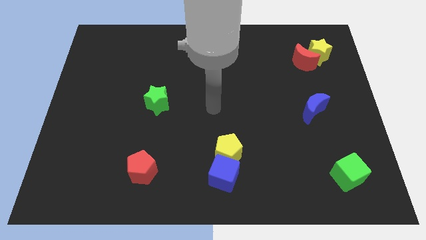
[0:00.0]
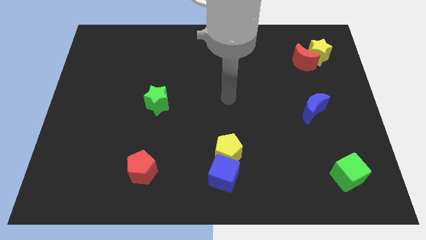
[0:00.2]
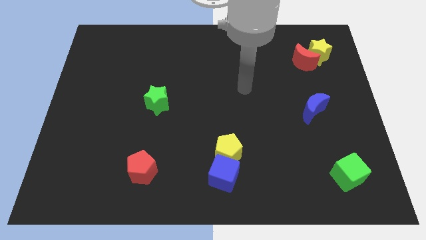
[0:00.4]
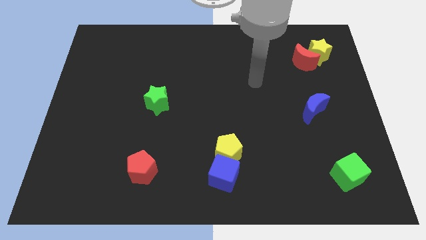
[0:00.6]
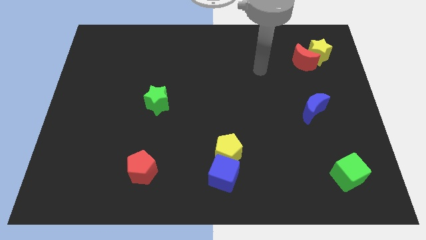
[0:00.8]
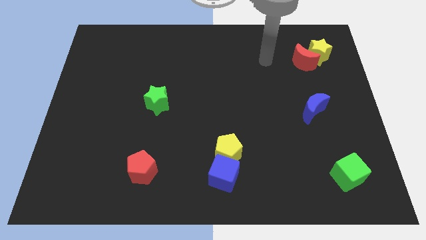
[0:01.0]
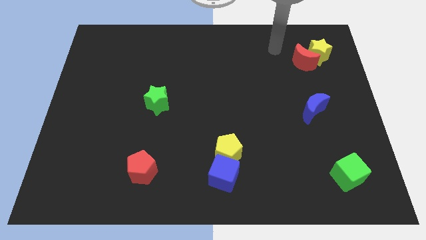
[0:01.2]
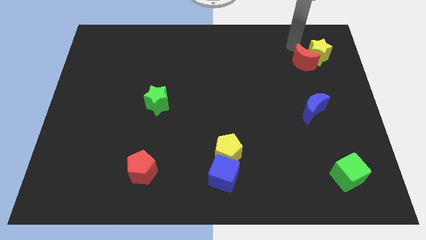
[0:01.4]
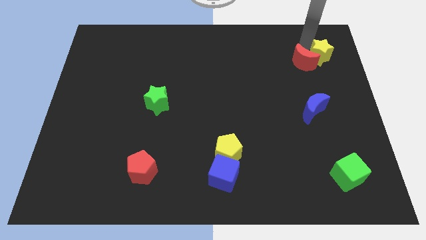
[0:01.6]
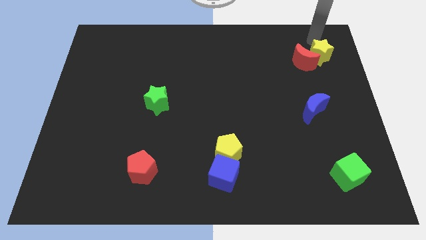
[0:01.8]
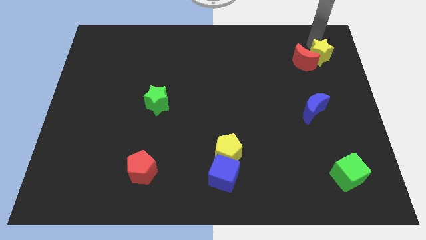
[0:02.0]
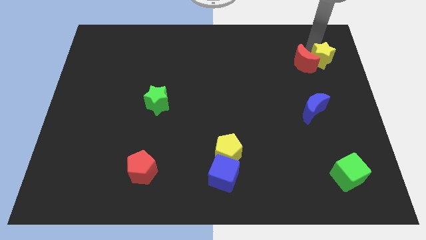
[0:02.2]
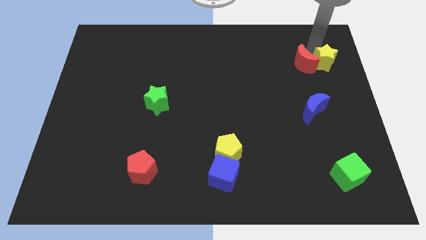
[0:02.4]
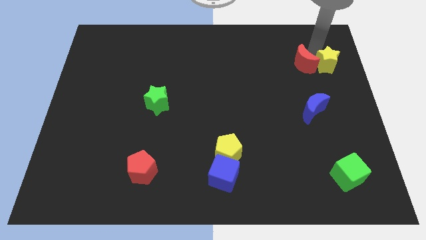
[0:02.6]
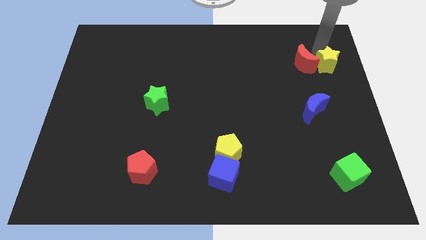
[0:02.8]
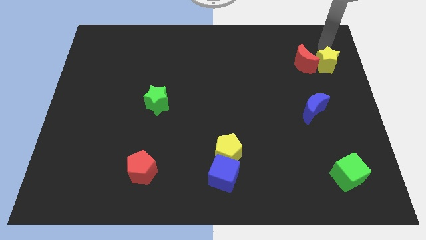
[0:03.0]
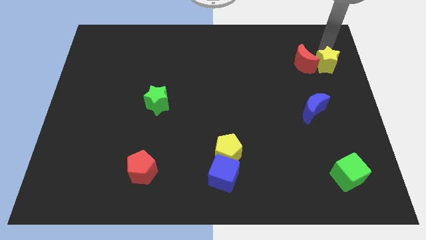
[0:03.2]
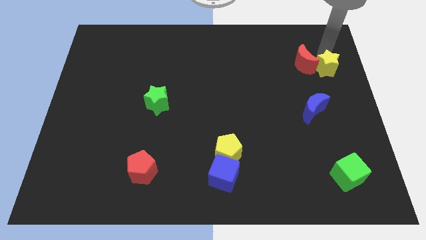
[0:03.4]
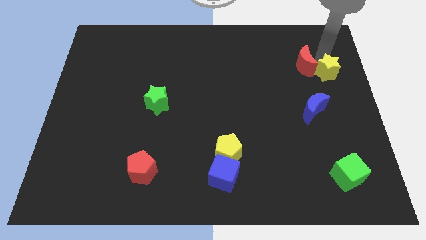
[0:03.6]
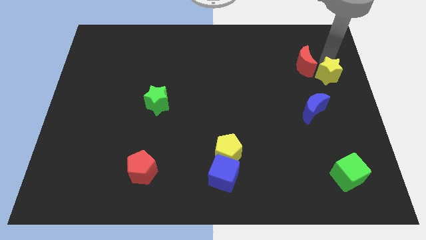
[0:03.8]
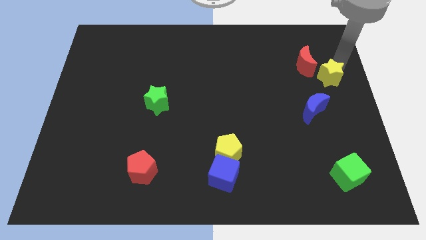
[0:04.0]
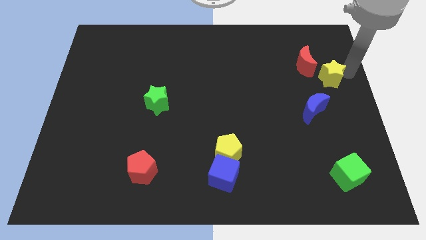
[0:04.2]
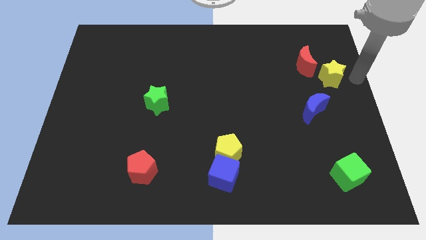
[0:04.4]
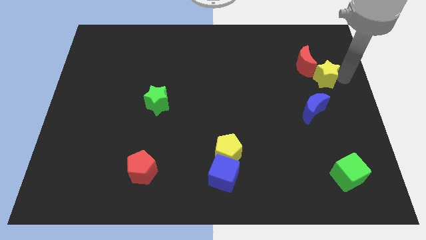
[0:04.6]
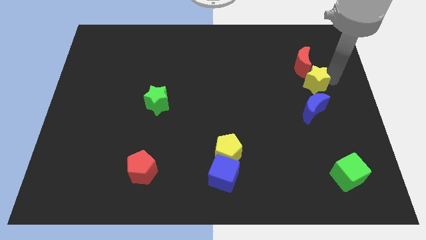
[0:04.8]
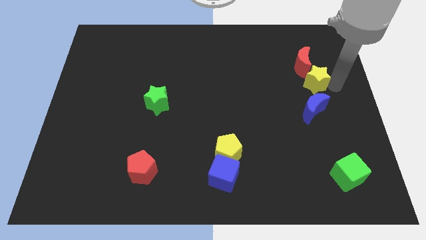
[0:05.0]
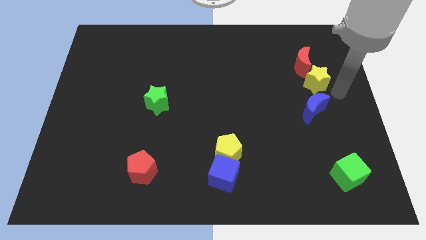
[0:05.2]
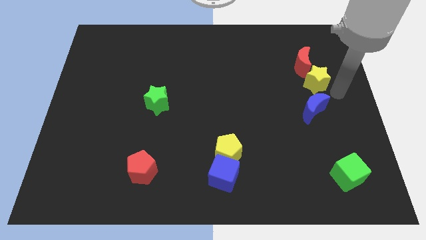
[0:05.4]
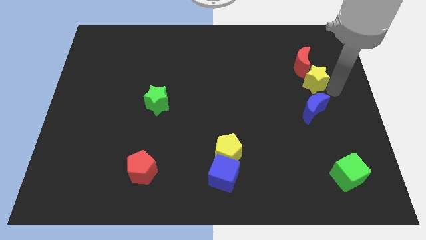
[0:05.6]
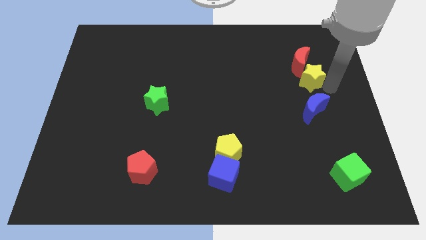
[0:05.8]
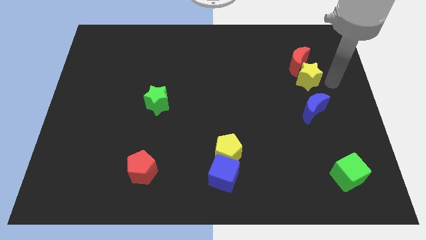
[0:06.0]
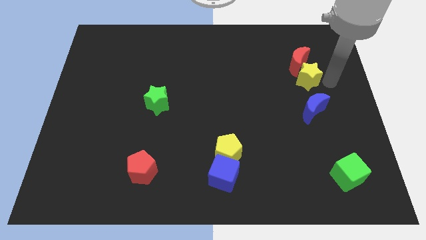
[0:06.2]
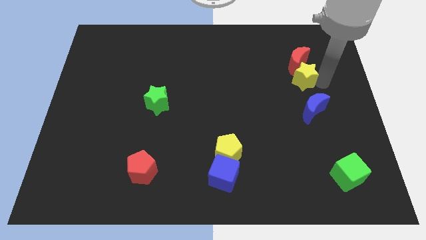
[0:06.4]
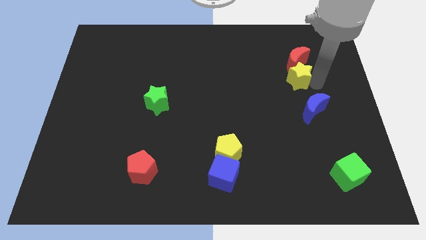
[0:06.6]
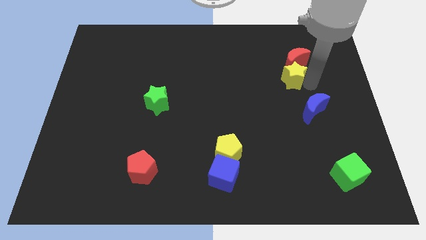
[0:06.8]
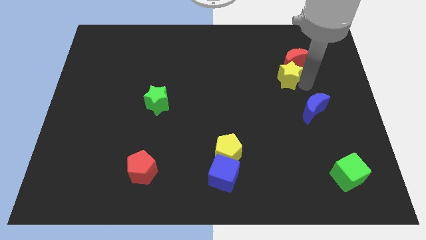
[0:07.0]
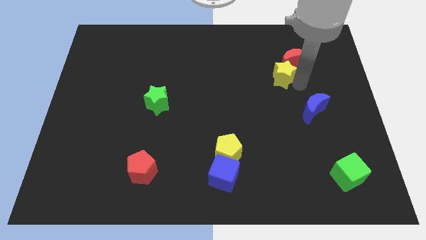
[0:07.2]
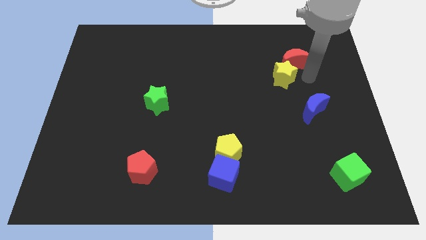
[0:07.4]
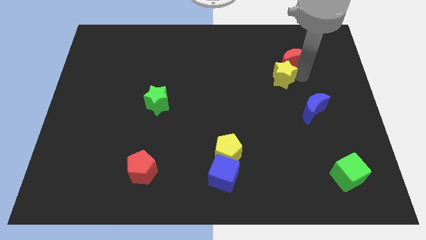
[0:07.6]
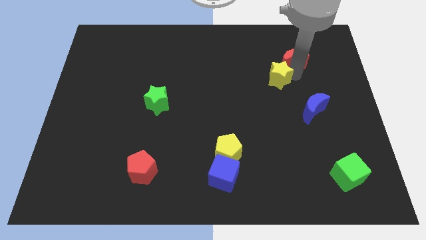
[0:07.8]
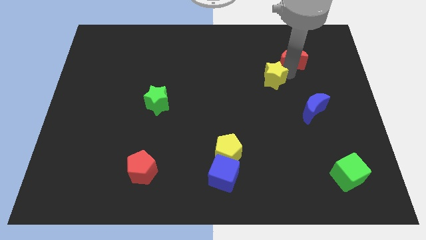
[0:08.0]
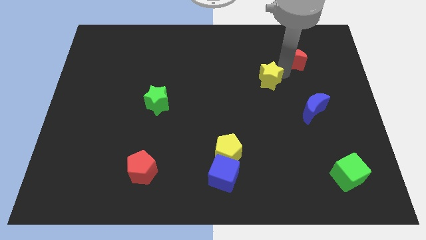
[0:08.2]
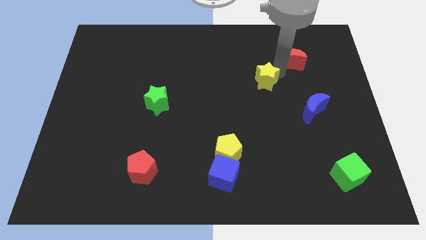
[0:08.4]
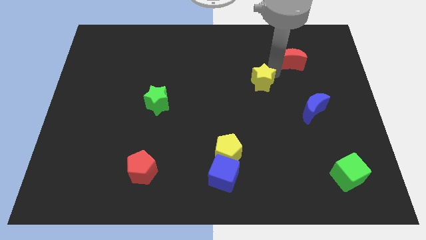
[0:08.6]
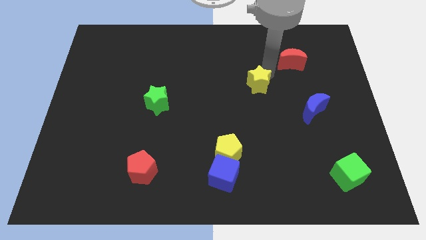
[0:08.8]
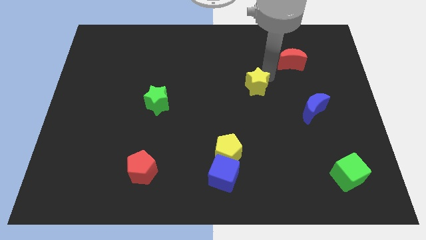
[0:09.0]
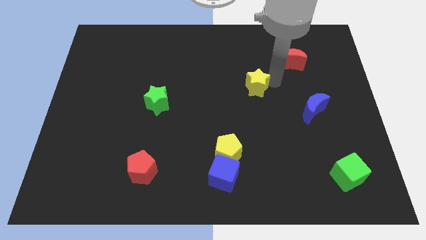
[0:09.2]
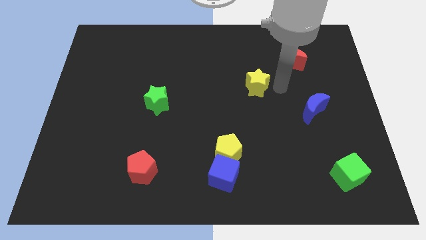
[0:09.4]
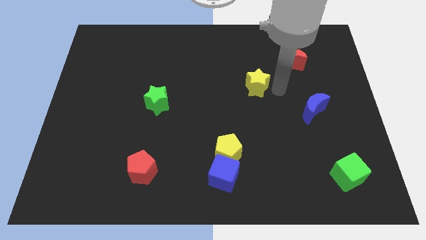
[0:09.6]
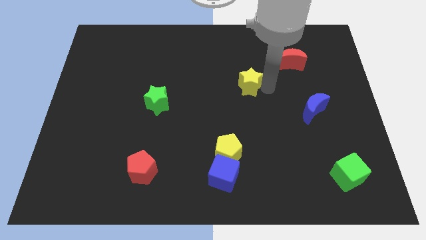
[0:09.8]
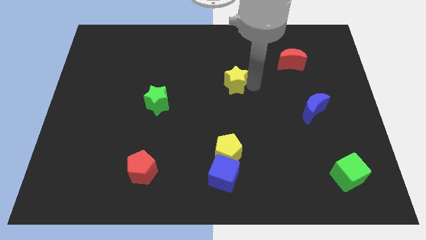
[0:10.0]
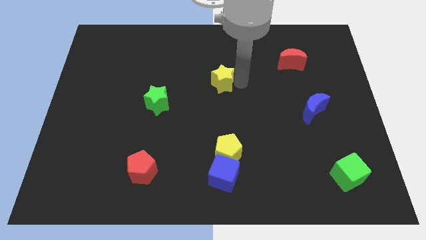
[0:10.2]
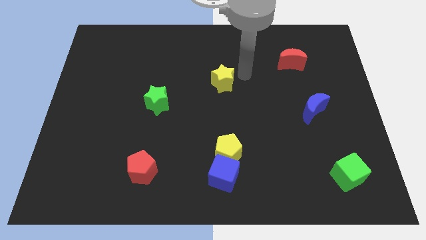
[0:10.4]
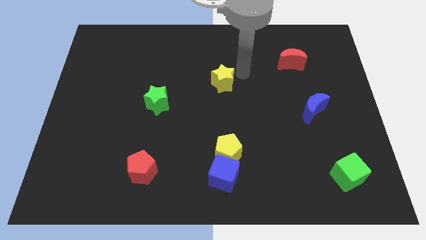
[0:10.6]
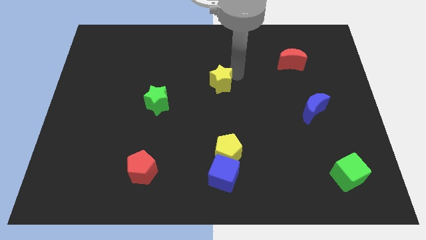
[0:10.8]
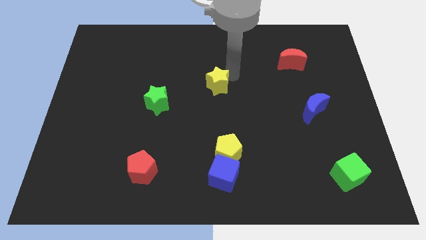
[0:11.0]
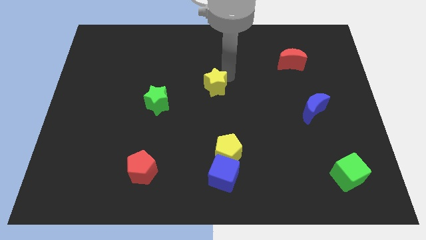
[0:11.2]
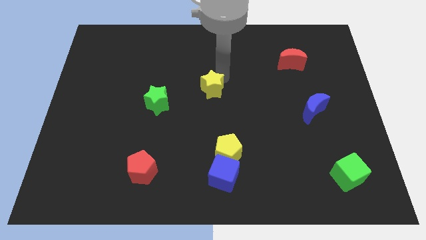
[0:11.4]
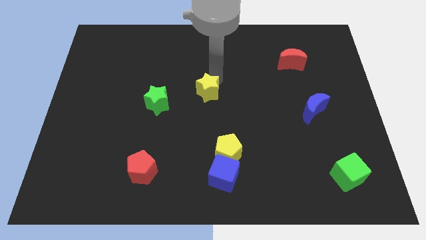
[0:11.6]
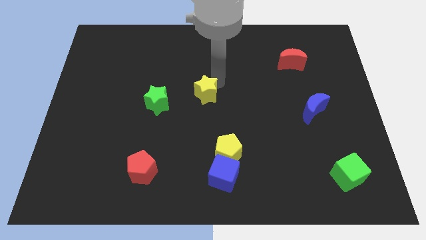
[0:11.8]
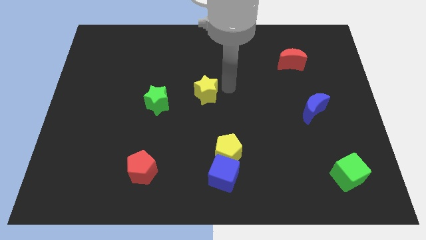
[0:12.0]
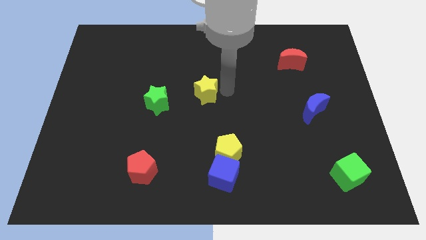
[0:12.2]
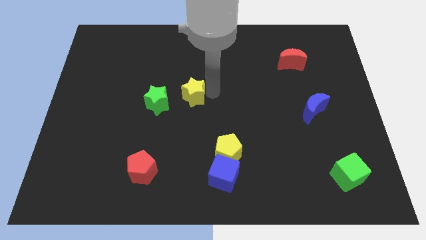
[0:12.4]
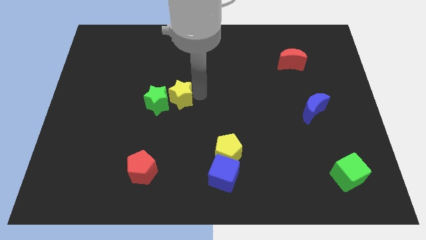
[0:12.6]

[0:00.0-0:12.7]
put the yellow star close to the green star

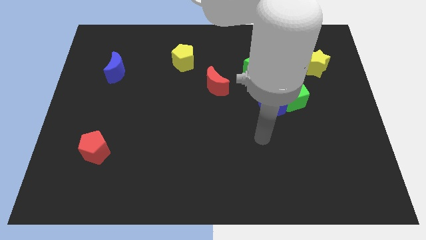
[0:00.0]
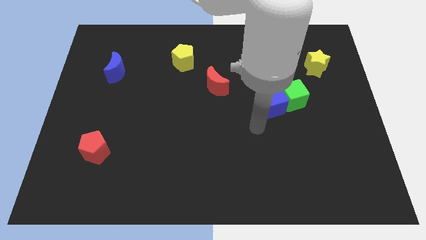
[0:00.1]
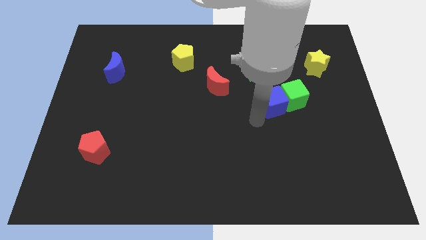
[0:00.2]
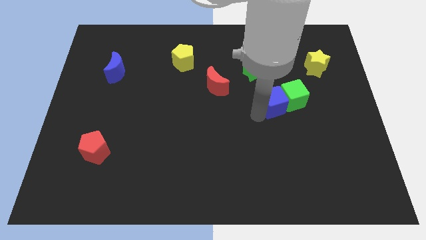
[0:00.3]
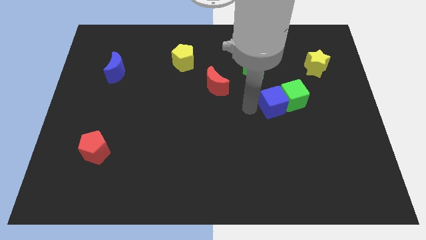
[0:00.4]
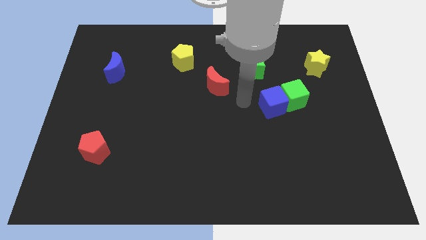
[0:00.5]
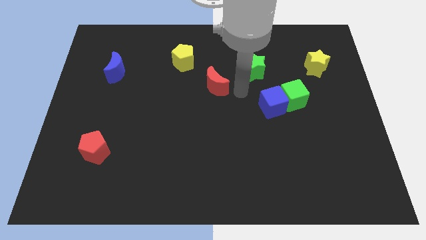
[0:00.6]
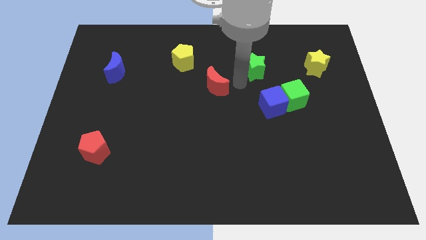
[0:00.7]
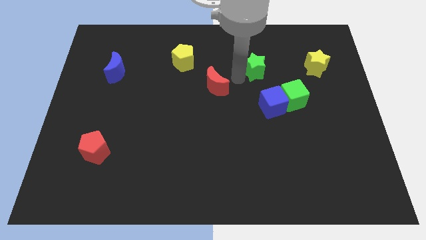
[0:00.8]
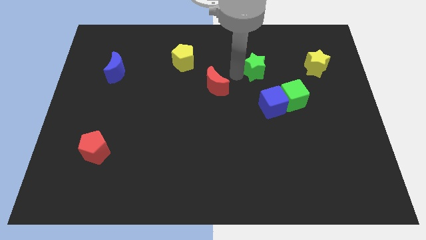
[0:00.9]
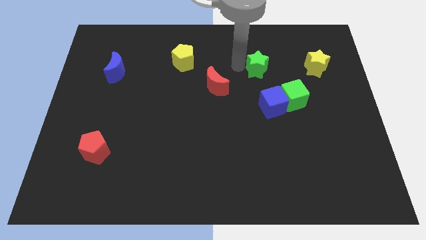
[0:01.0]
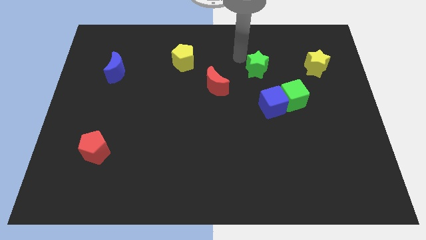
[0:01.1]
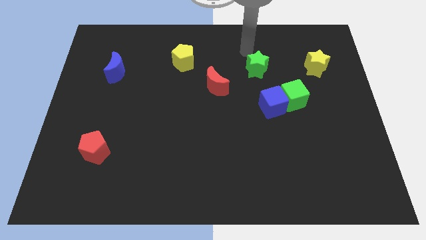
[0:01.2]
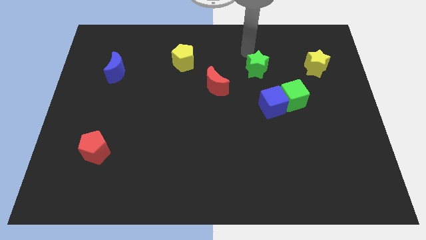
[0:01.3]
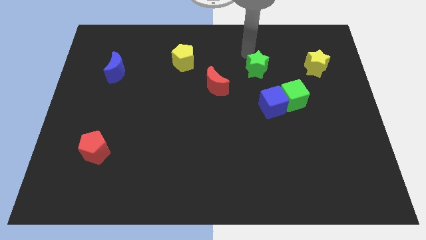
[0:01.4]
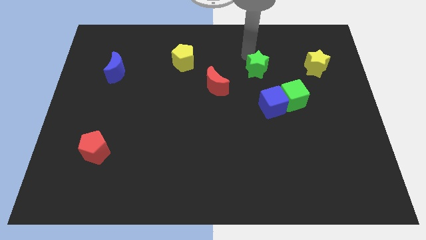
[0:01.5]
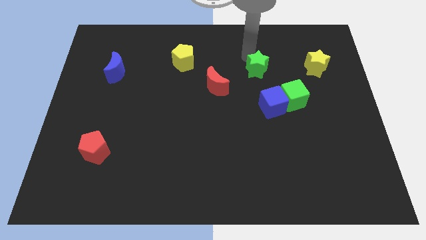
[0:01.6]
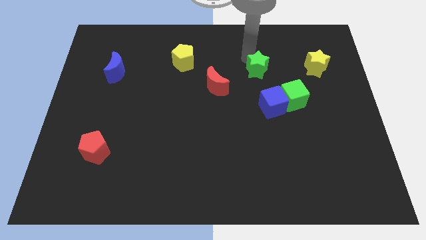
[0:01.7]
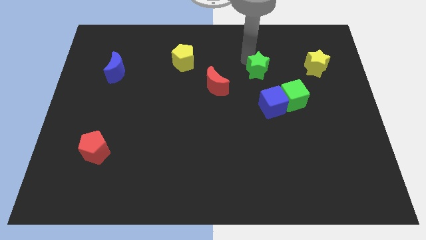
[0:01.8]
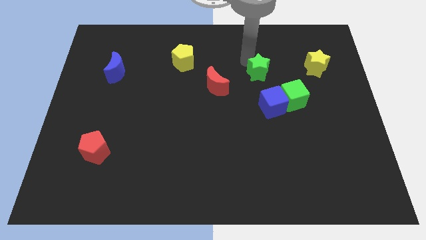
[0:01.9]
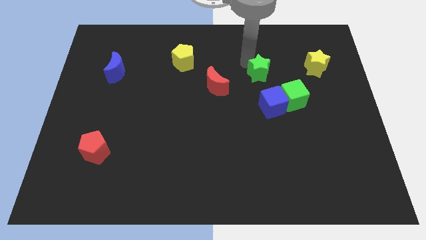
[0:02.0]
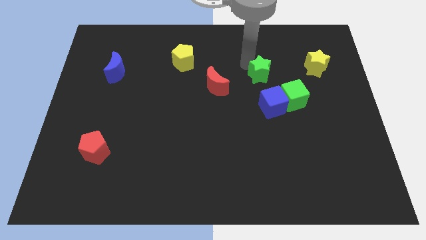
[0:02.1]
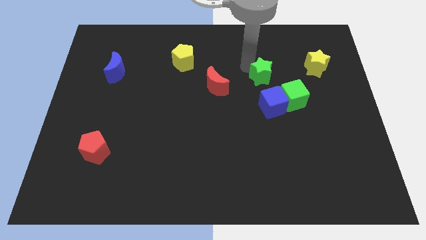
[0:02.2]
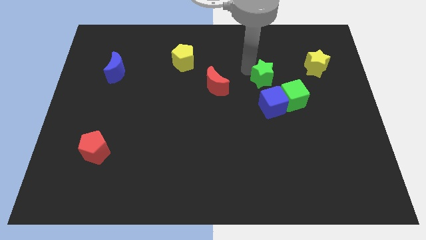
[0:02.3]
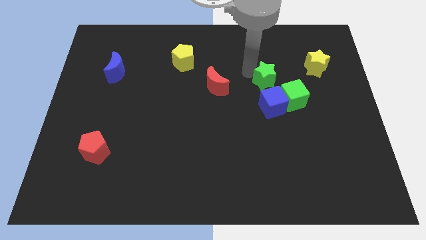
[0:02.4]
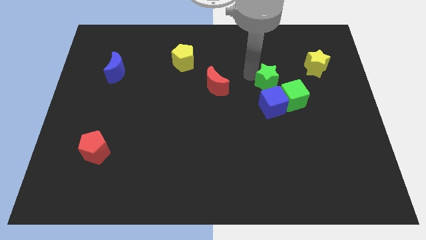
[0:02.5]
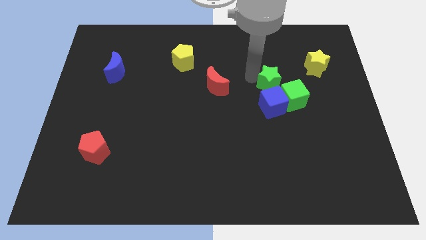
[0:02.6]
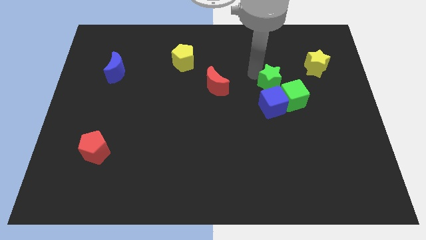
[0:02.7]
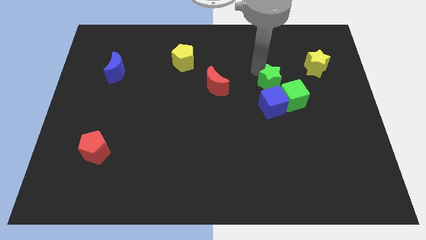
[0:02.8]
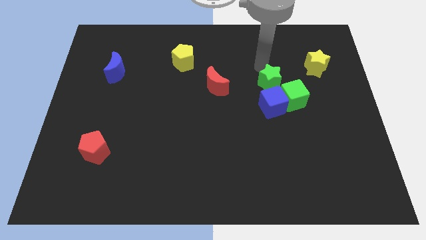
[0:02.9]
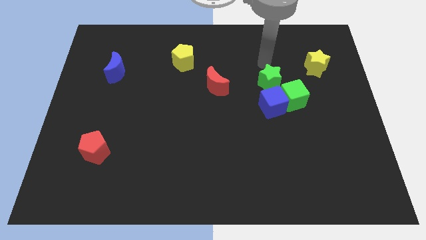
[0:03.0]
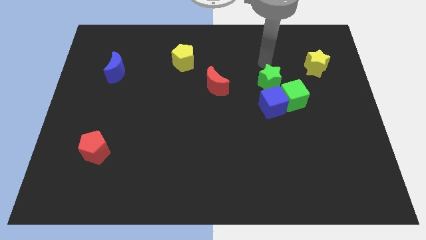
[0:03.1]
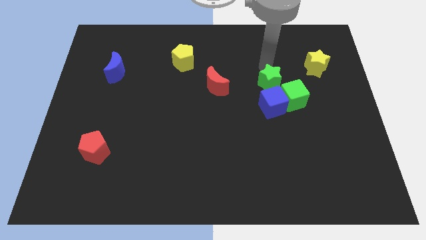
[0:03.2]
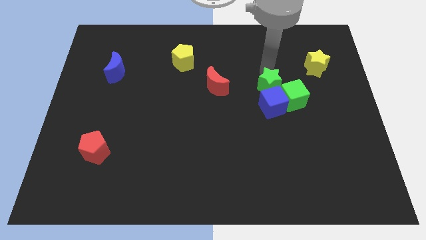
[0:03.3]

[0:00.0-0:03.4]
move the green star close to the blue cube
